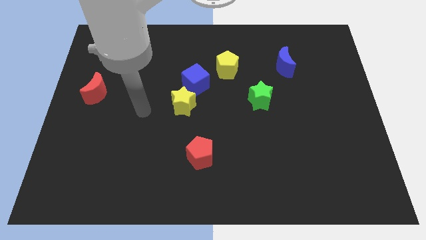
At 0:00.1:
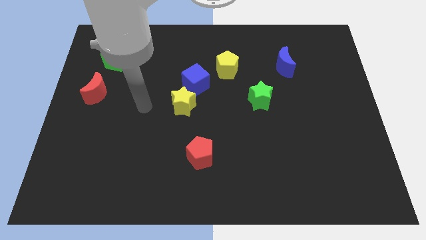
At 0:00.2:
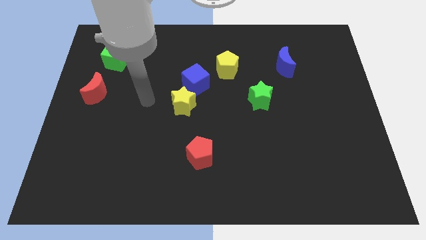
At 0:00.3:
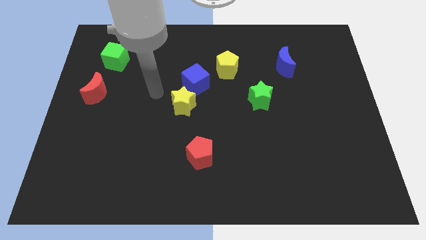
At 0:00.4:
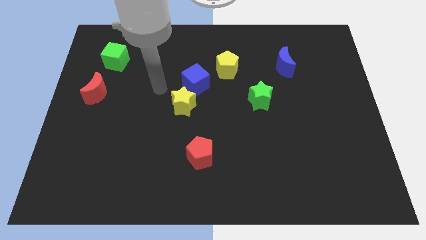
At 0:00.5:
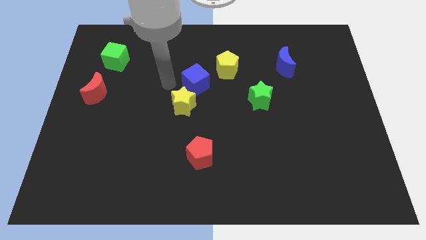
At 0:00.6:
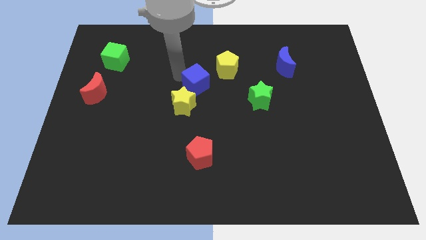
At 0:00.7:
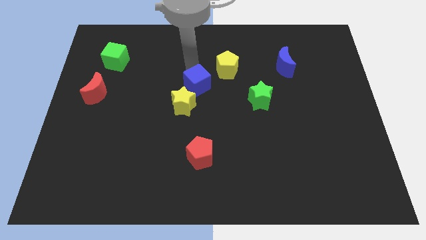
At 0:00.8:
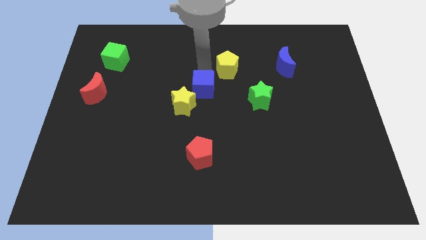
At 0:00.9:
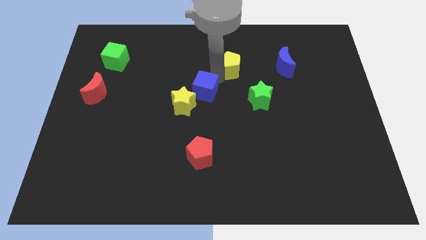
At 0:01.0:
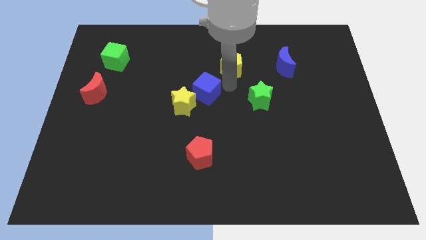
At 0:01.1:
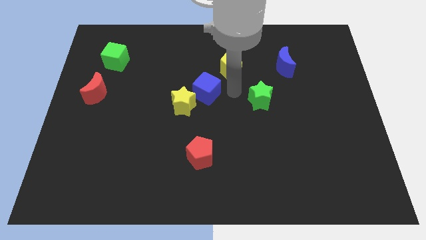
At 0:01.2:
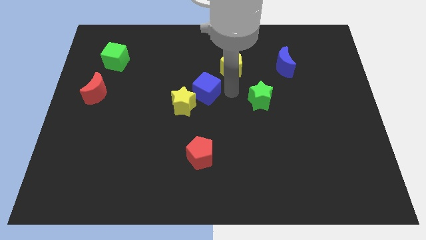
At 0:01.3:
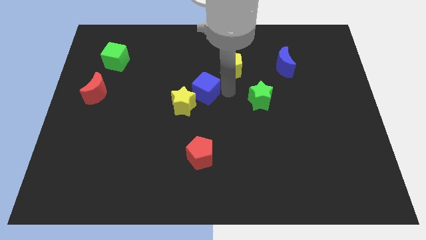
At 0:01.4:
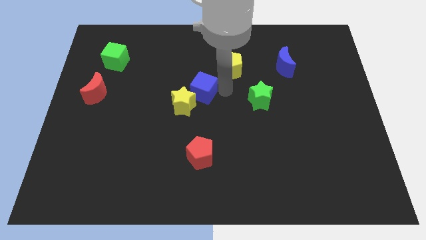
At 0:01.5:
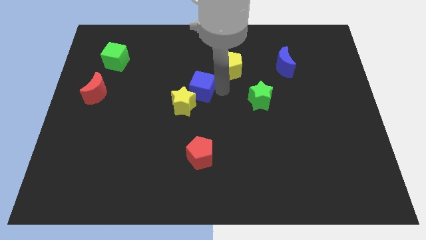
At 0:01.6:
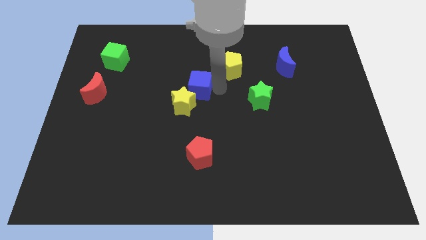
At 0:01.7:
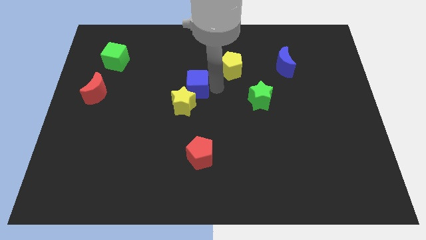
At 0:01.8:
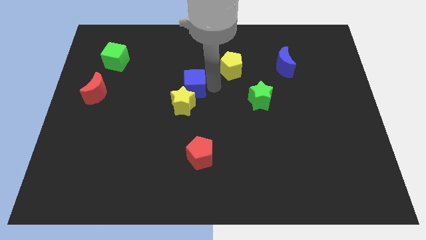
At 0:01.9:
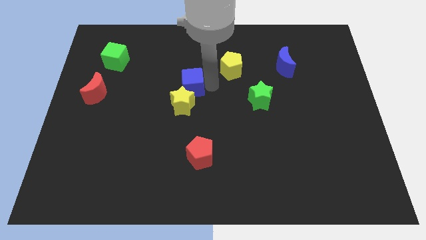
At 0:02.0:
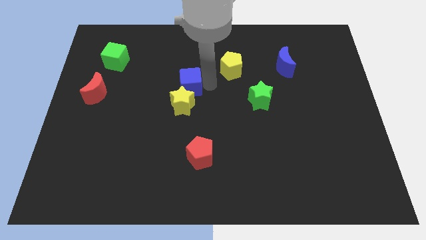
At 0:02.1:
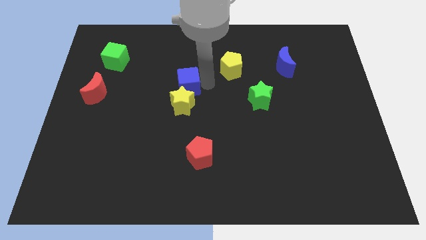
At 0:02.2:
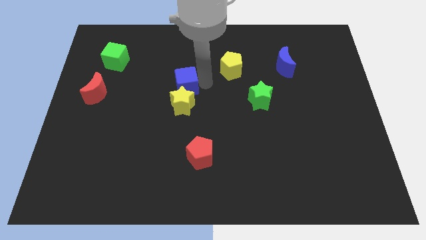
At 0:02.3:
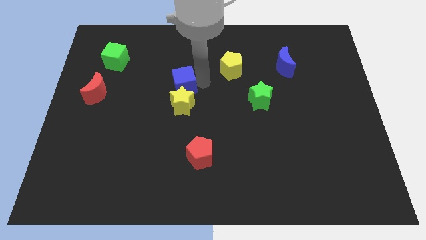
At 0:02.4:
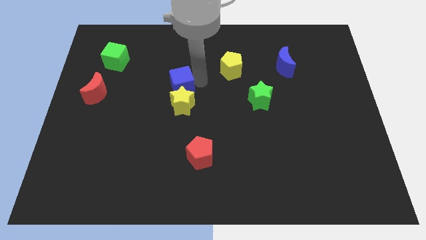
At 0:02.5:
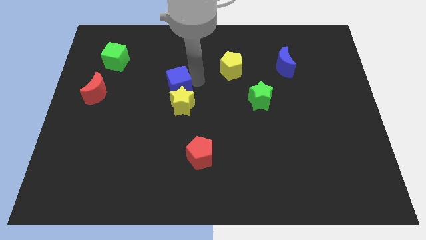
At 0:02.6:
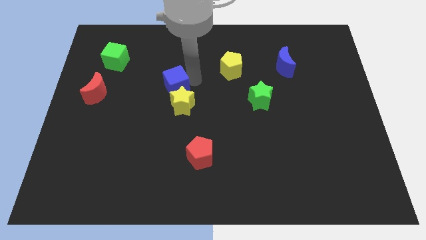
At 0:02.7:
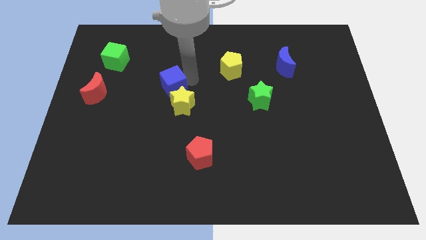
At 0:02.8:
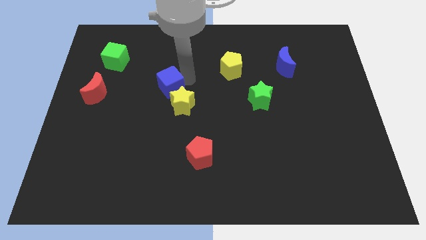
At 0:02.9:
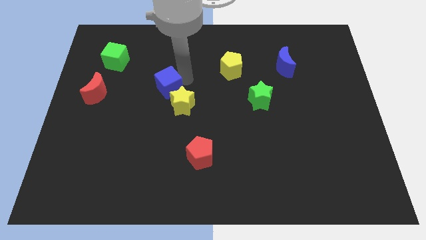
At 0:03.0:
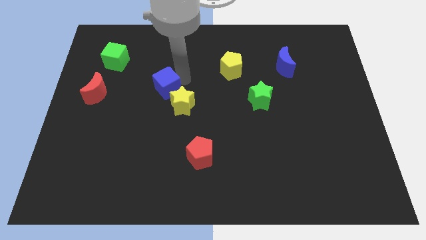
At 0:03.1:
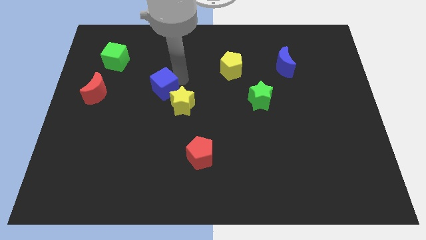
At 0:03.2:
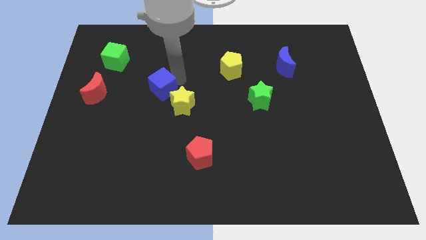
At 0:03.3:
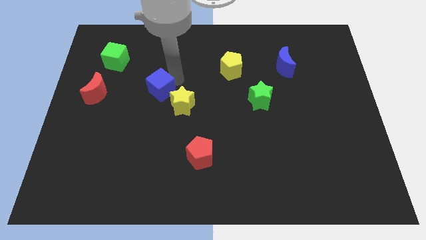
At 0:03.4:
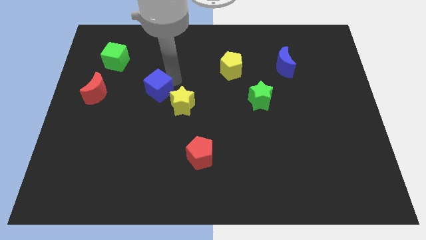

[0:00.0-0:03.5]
slightly push the blue cube down and left

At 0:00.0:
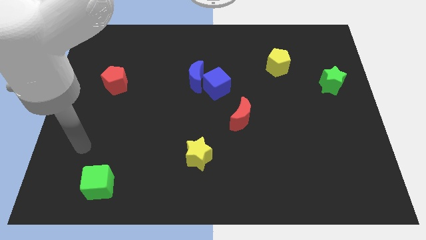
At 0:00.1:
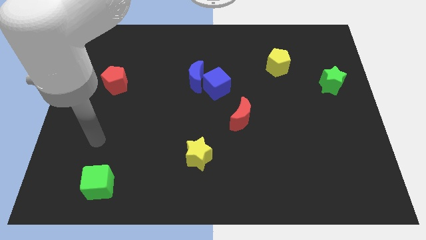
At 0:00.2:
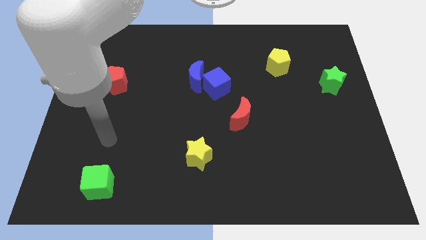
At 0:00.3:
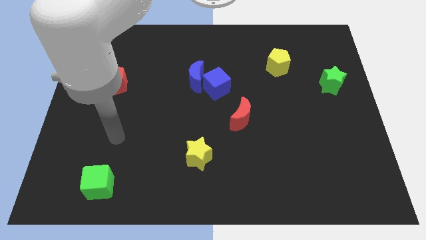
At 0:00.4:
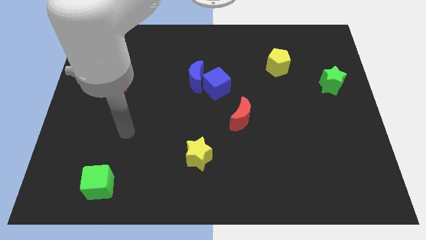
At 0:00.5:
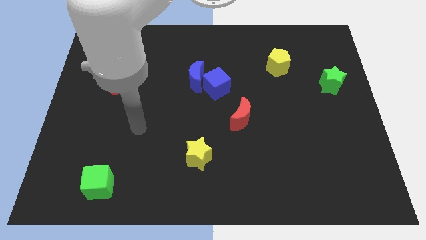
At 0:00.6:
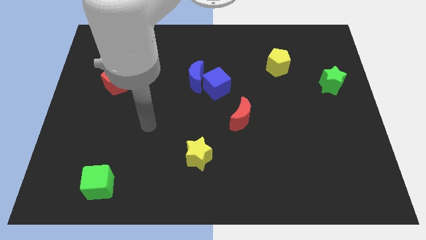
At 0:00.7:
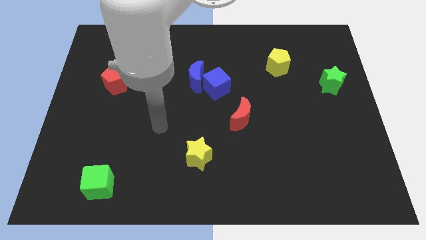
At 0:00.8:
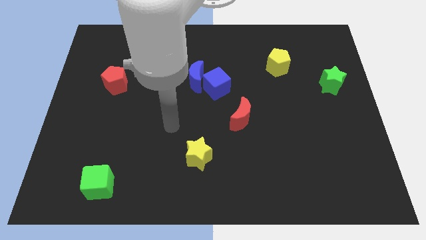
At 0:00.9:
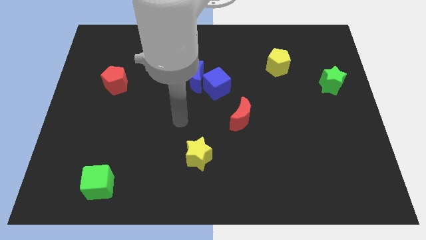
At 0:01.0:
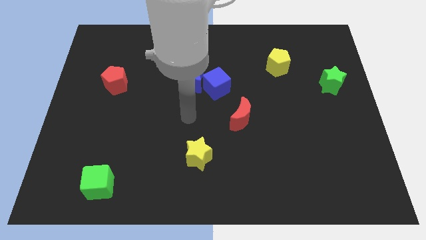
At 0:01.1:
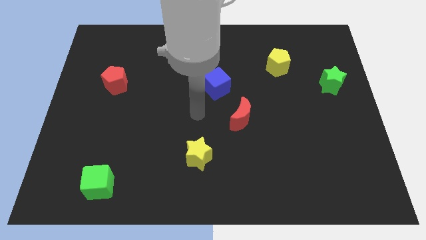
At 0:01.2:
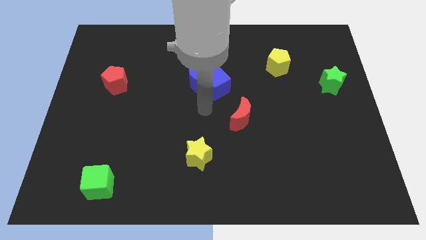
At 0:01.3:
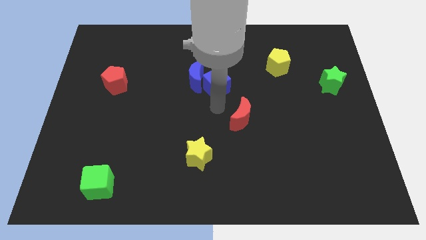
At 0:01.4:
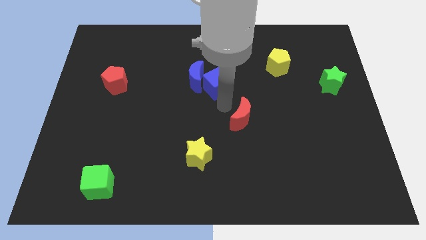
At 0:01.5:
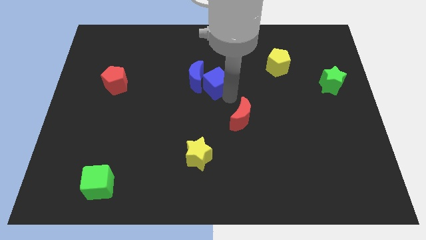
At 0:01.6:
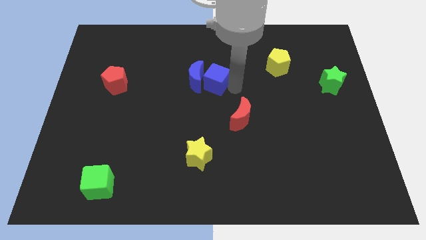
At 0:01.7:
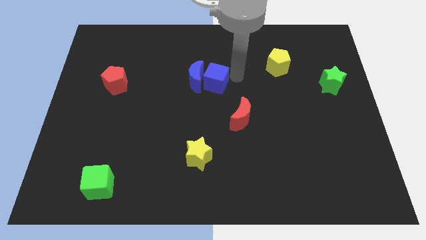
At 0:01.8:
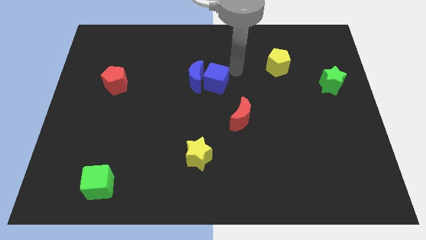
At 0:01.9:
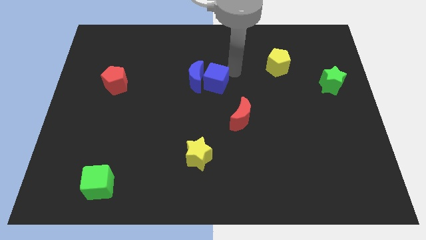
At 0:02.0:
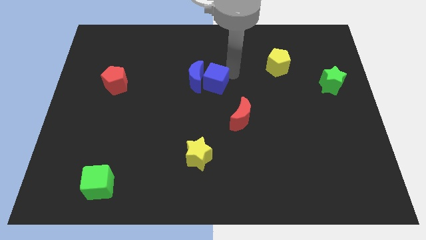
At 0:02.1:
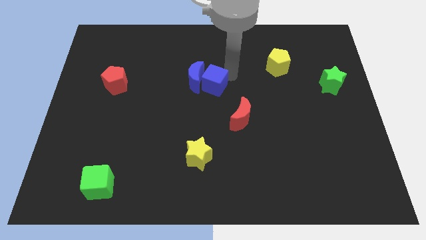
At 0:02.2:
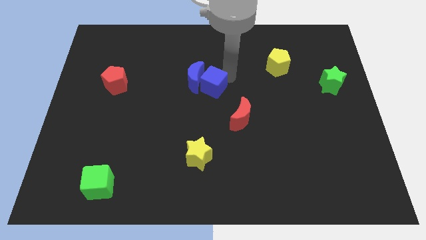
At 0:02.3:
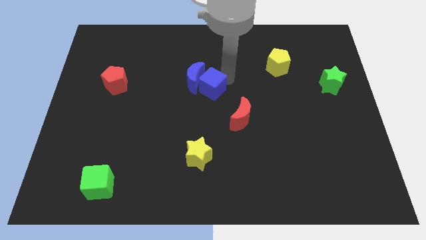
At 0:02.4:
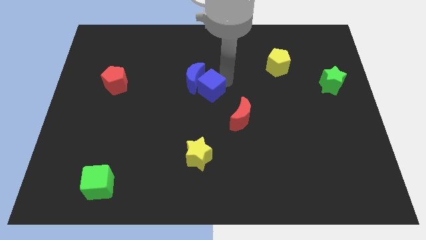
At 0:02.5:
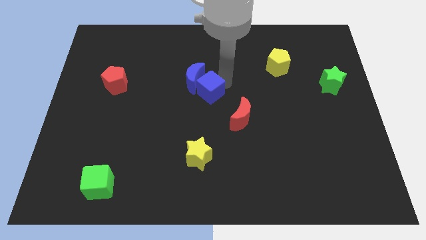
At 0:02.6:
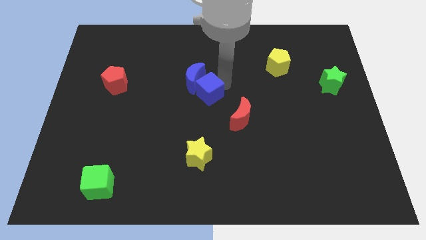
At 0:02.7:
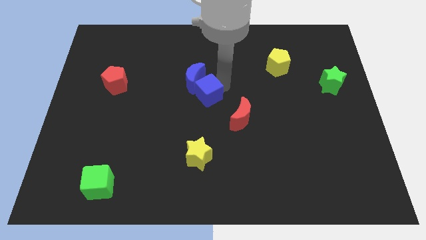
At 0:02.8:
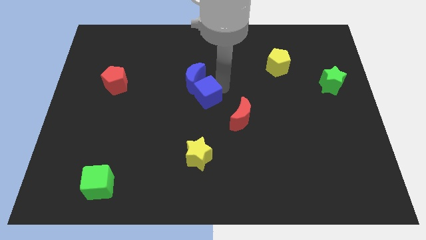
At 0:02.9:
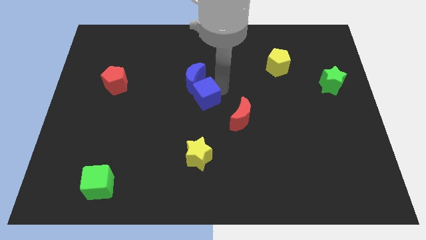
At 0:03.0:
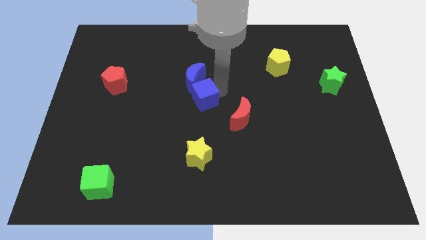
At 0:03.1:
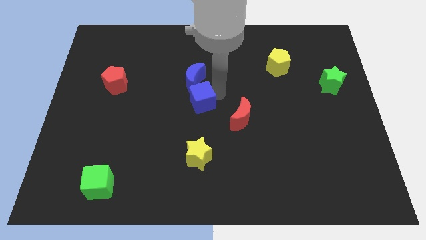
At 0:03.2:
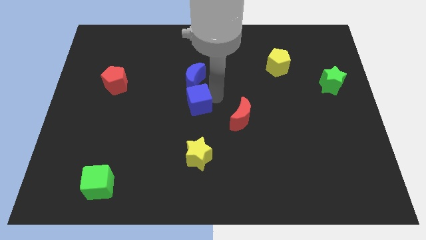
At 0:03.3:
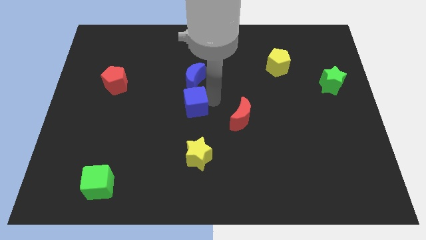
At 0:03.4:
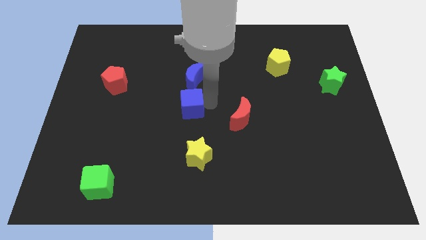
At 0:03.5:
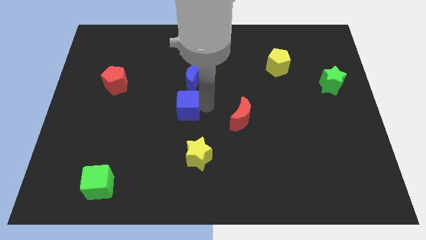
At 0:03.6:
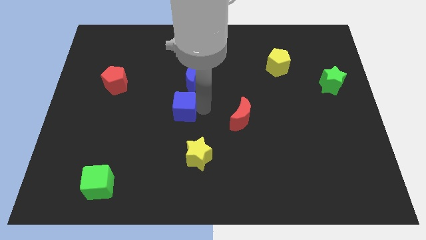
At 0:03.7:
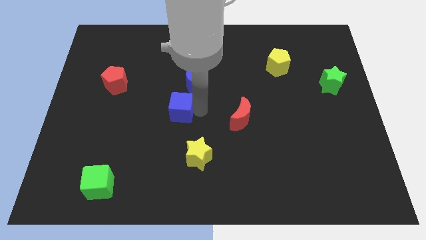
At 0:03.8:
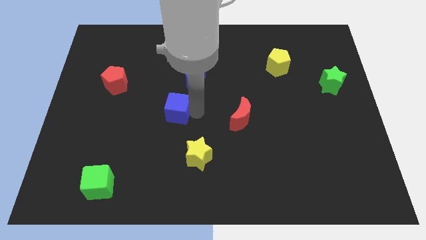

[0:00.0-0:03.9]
slightly slide the blue cube to the left

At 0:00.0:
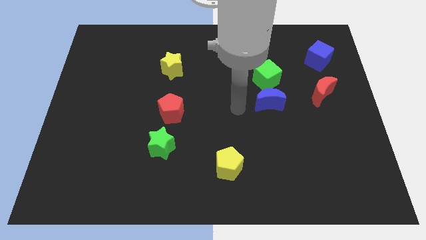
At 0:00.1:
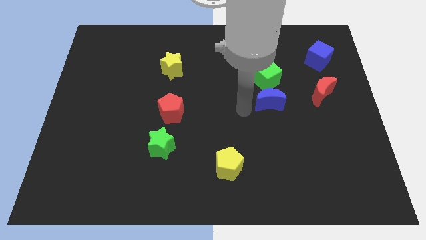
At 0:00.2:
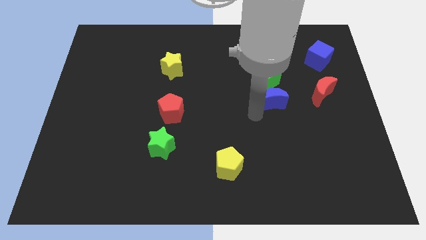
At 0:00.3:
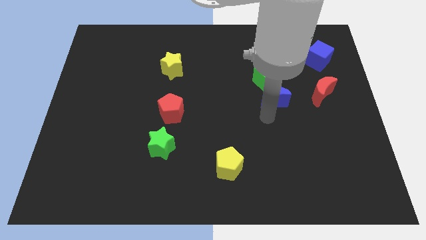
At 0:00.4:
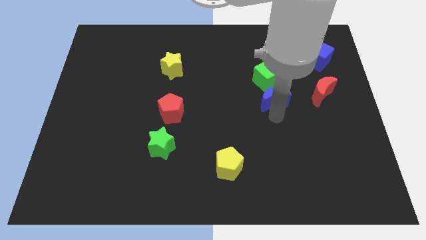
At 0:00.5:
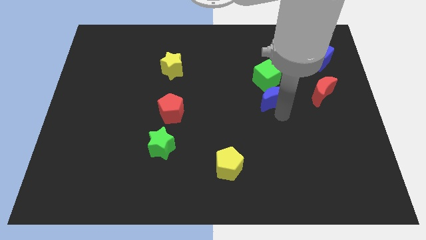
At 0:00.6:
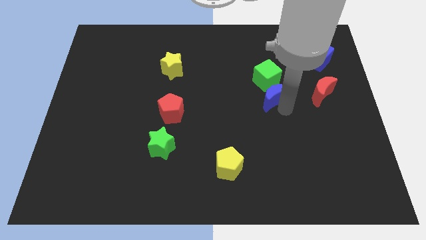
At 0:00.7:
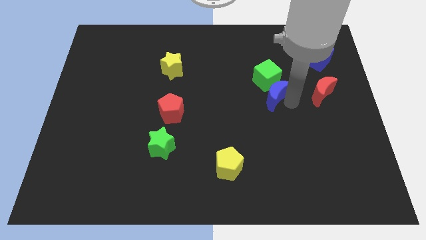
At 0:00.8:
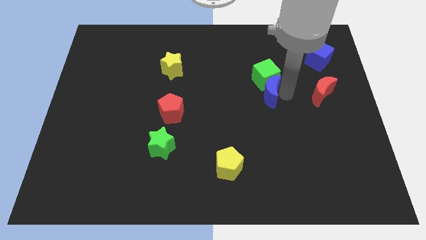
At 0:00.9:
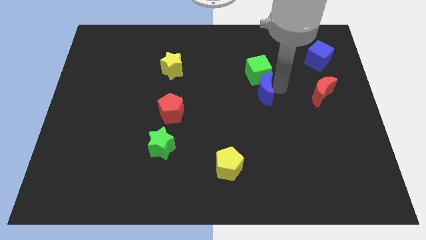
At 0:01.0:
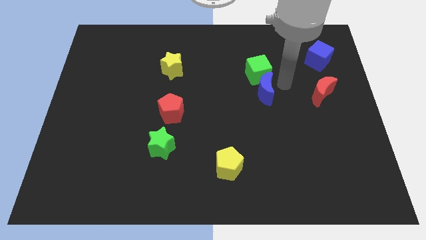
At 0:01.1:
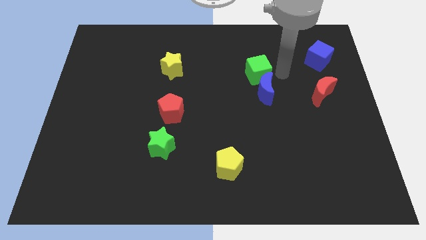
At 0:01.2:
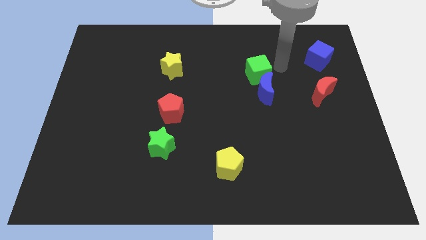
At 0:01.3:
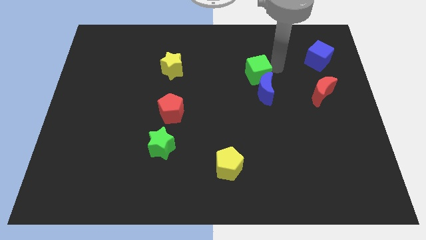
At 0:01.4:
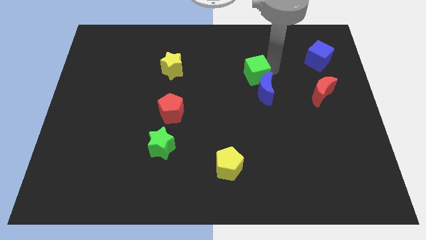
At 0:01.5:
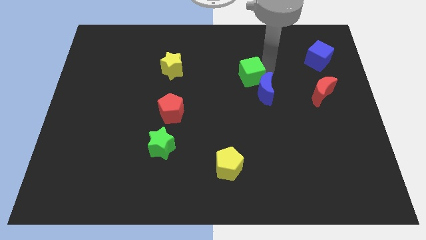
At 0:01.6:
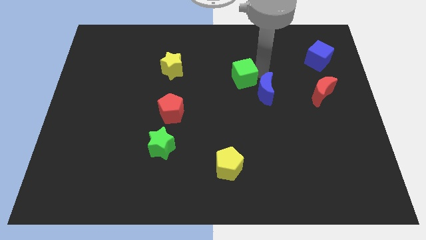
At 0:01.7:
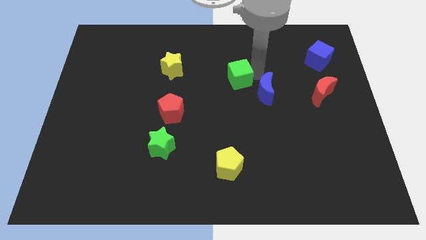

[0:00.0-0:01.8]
push the green cube somewhat to the left
